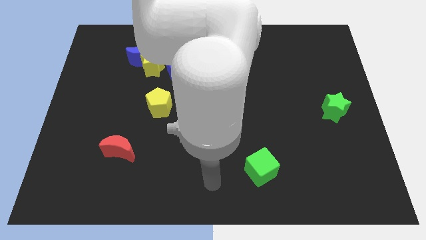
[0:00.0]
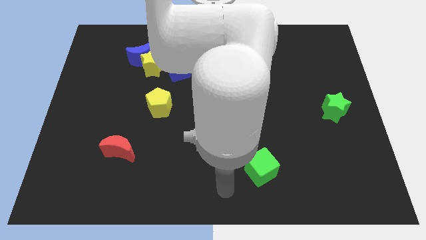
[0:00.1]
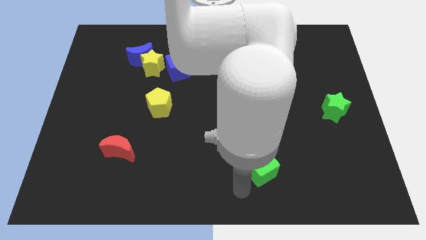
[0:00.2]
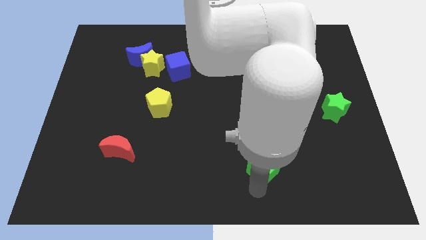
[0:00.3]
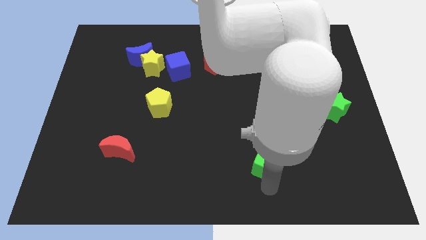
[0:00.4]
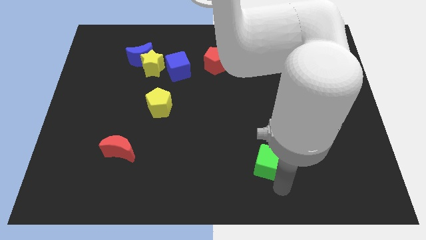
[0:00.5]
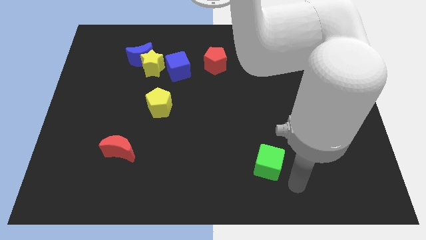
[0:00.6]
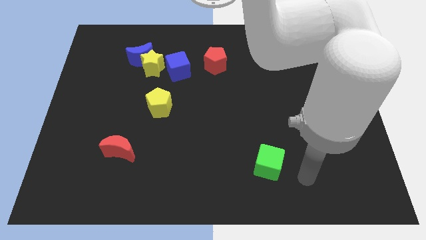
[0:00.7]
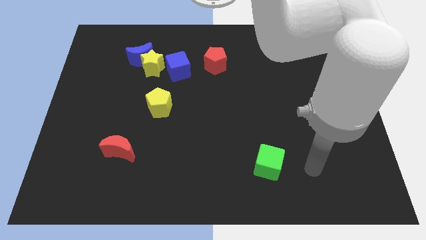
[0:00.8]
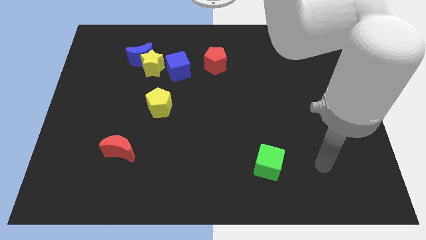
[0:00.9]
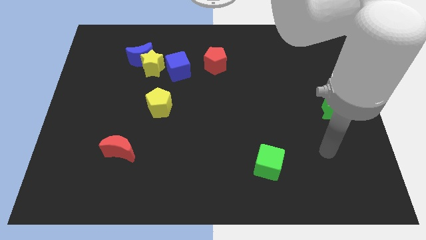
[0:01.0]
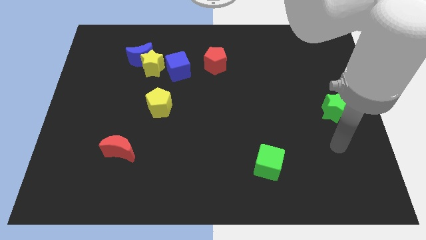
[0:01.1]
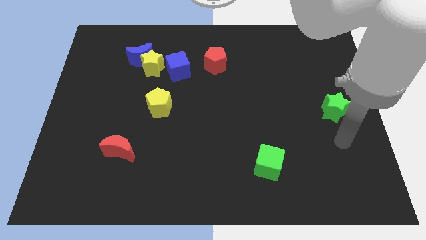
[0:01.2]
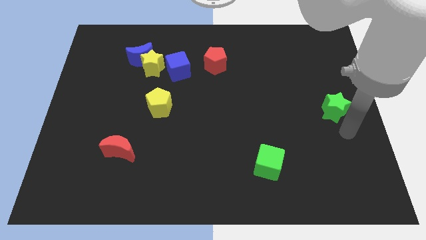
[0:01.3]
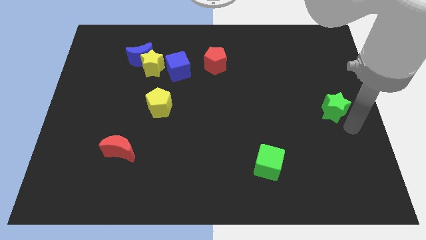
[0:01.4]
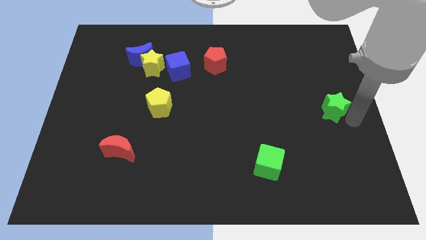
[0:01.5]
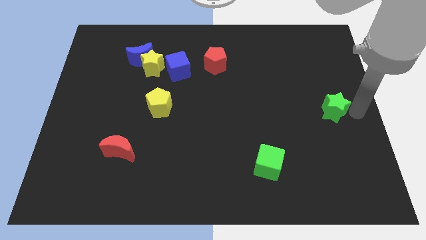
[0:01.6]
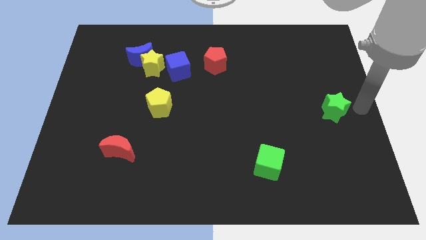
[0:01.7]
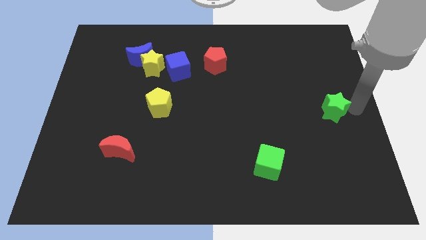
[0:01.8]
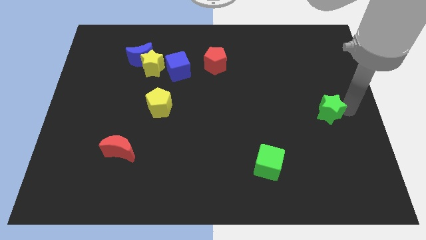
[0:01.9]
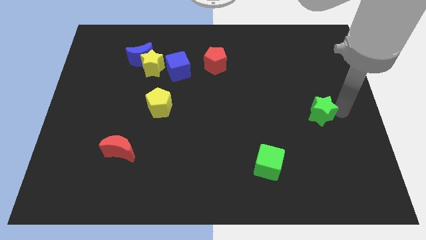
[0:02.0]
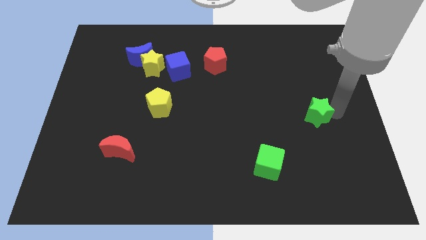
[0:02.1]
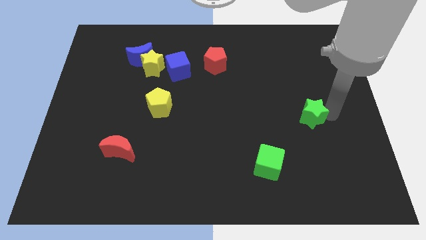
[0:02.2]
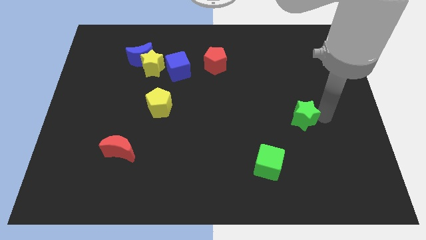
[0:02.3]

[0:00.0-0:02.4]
move the green star to the left slightly

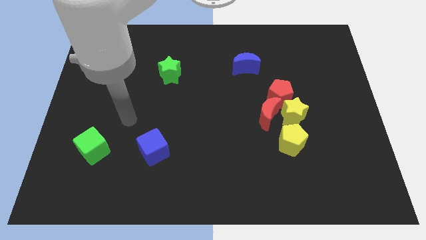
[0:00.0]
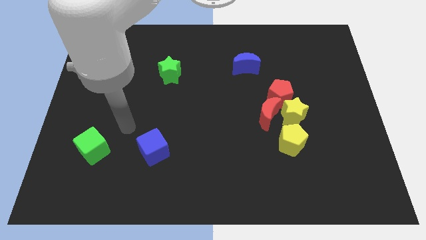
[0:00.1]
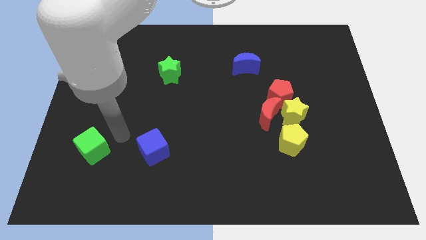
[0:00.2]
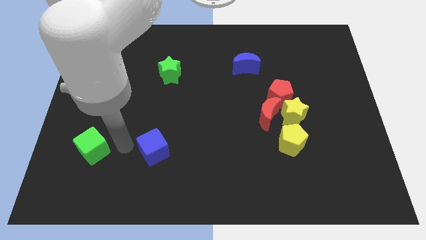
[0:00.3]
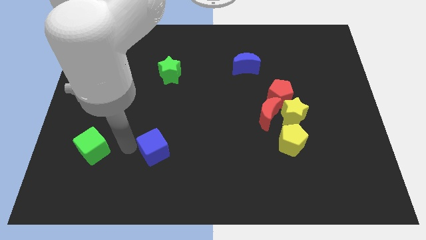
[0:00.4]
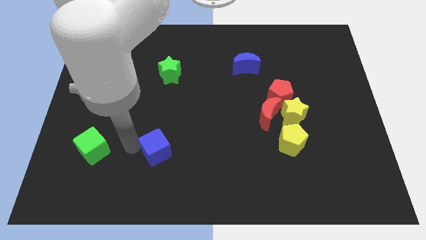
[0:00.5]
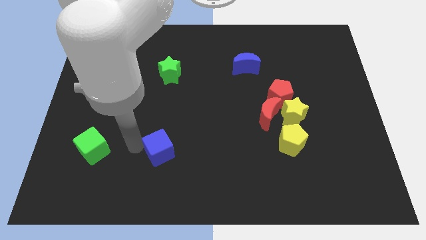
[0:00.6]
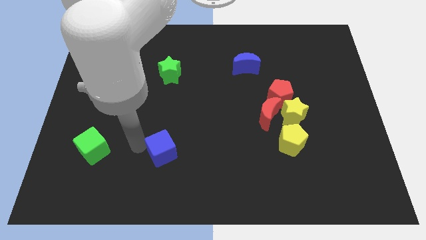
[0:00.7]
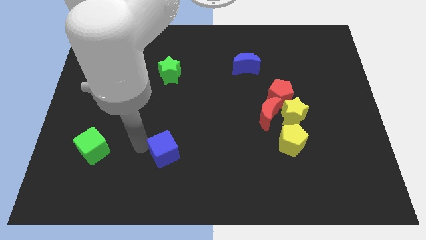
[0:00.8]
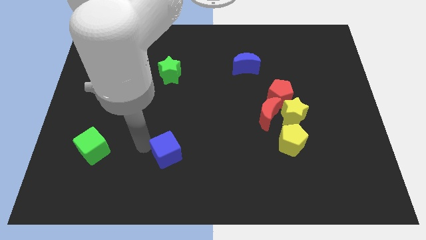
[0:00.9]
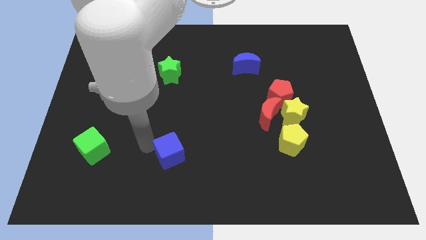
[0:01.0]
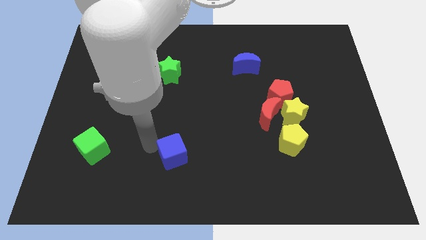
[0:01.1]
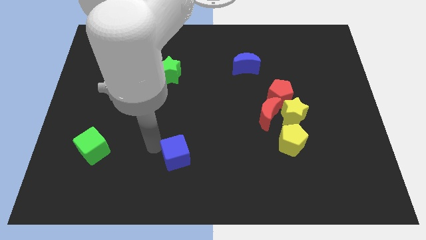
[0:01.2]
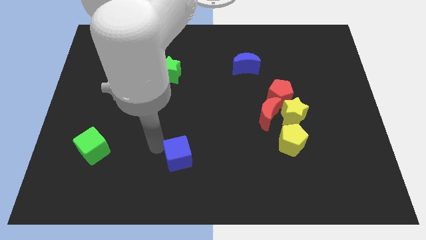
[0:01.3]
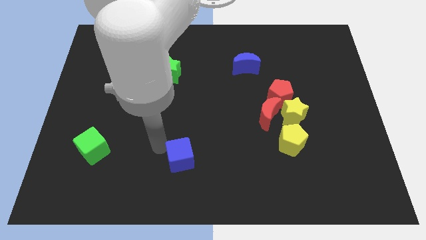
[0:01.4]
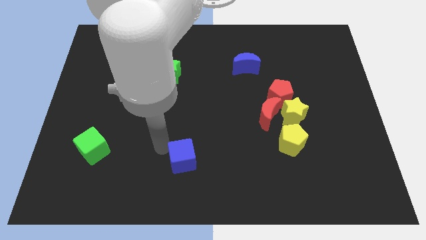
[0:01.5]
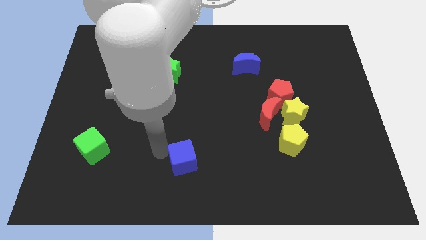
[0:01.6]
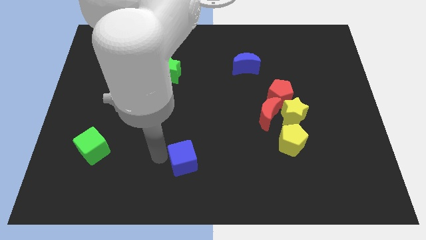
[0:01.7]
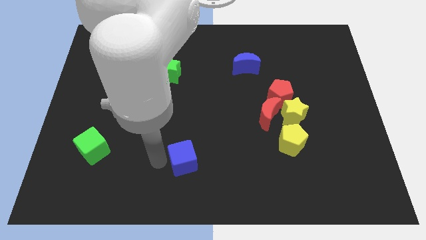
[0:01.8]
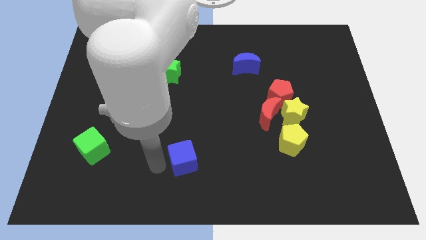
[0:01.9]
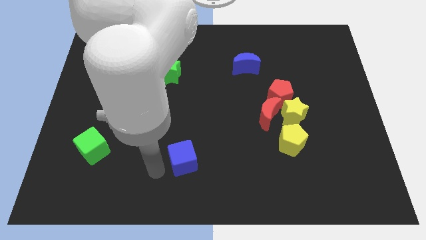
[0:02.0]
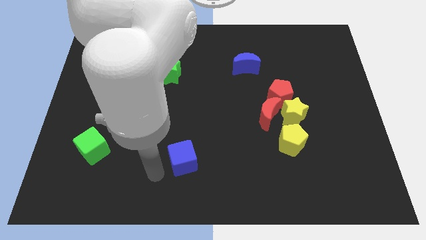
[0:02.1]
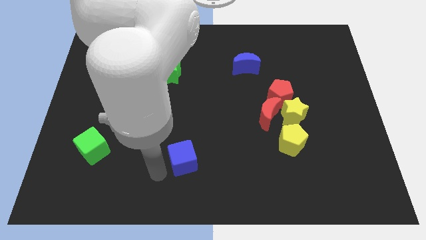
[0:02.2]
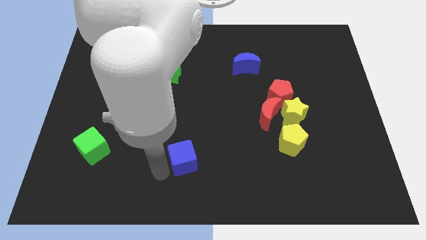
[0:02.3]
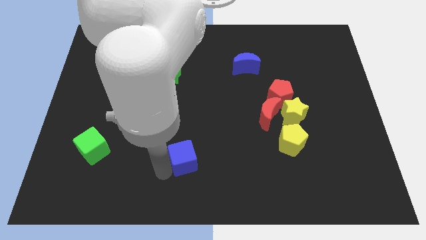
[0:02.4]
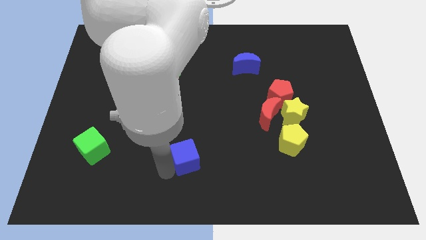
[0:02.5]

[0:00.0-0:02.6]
move the blue cube somewhat right

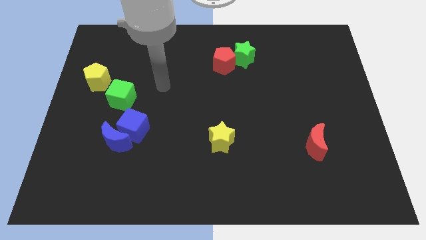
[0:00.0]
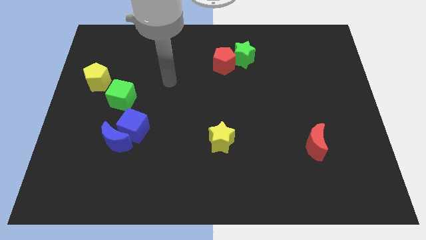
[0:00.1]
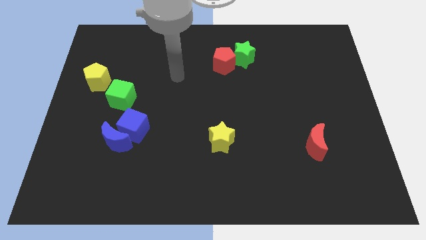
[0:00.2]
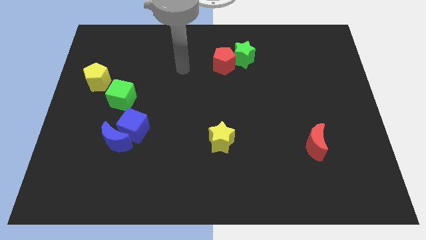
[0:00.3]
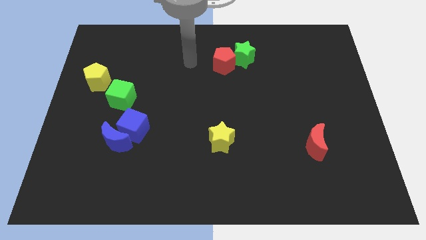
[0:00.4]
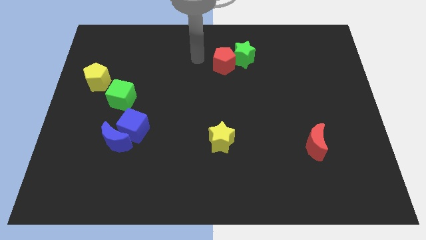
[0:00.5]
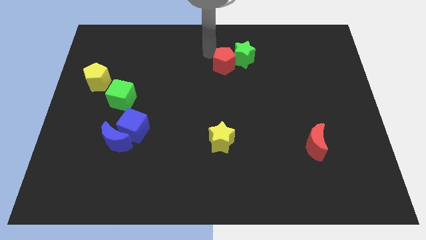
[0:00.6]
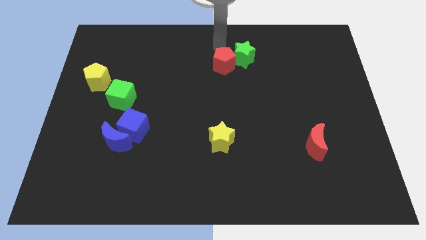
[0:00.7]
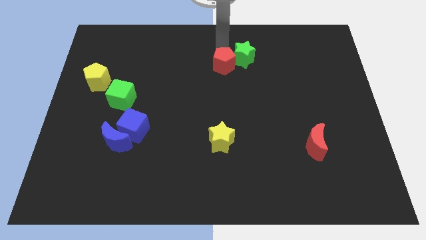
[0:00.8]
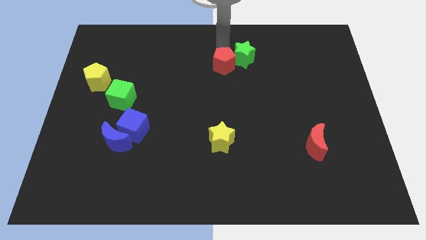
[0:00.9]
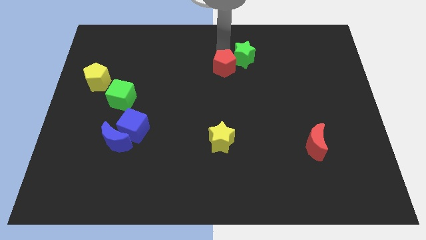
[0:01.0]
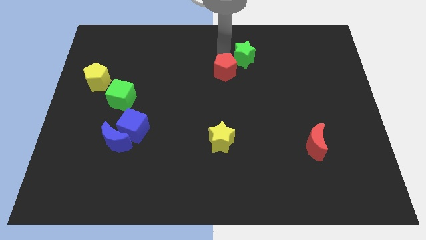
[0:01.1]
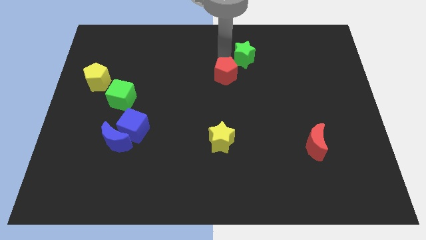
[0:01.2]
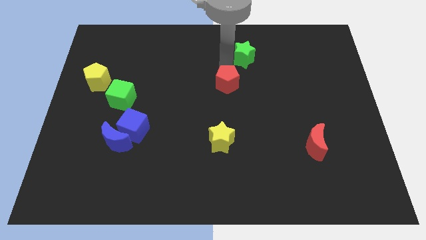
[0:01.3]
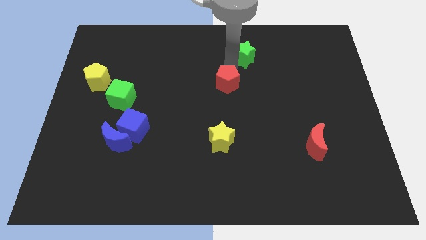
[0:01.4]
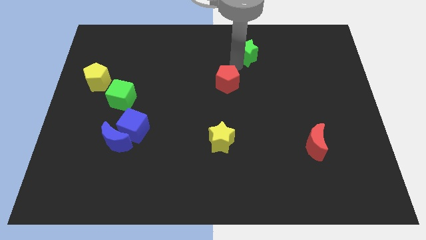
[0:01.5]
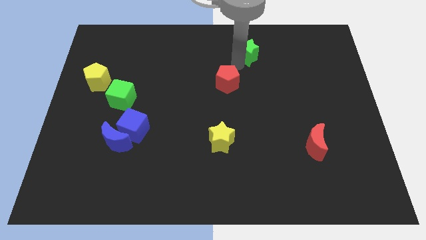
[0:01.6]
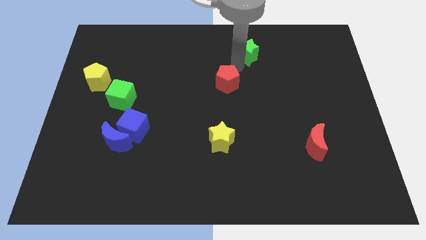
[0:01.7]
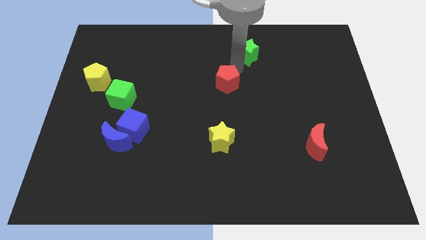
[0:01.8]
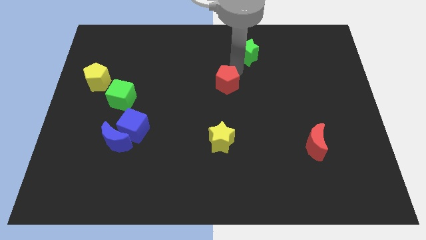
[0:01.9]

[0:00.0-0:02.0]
slightly move the red pentagon downwards

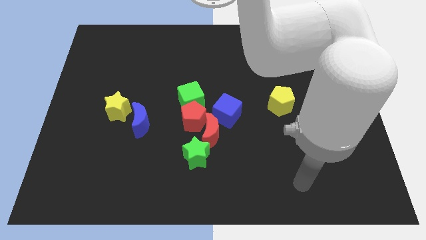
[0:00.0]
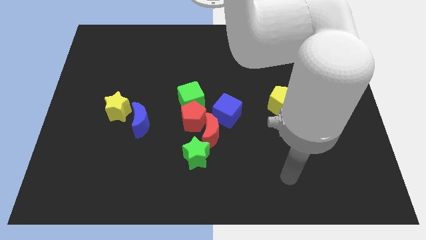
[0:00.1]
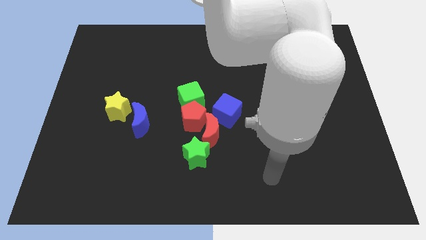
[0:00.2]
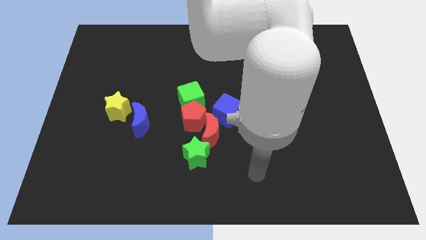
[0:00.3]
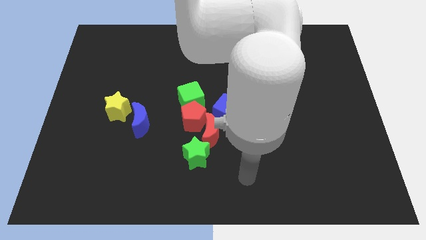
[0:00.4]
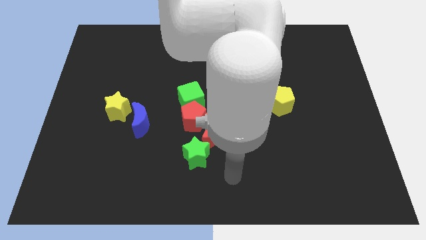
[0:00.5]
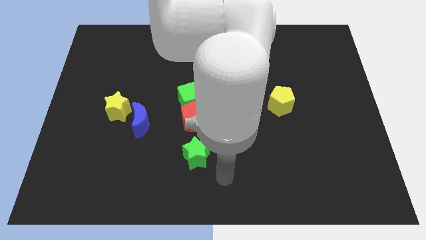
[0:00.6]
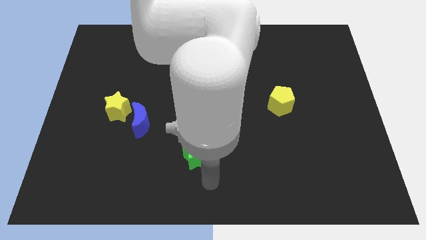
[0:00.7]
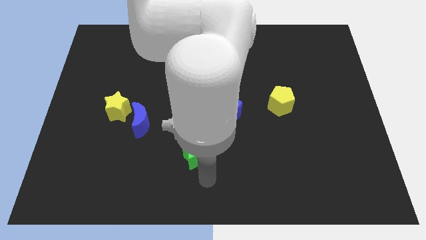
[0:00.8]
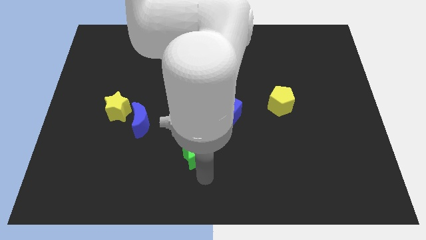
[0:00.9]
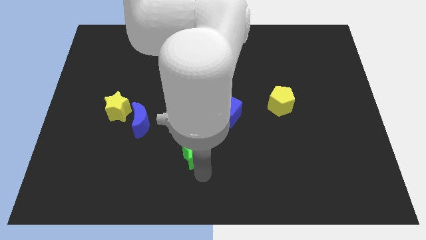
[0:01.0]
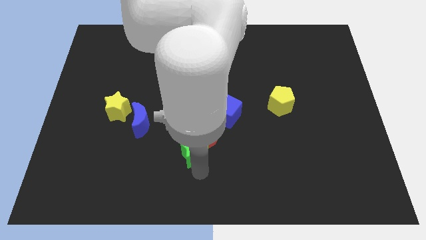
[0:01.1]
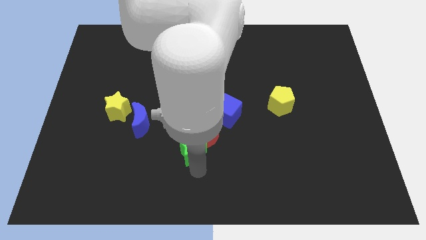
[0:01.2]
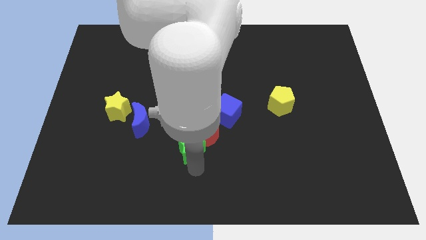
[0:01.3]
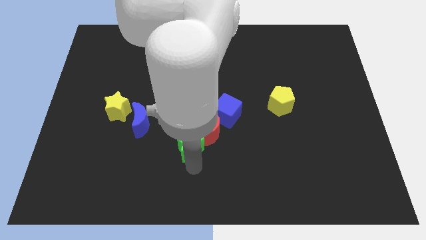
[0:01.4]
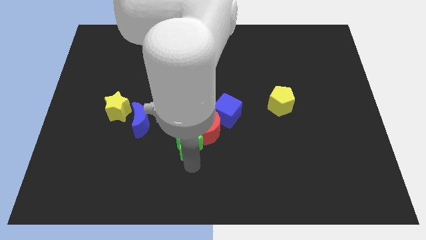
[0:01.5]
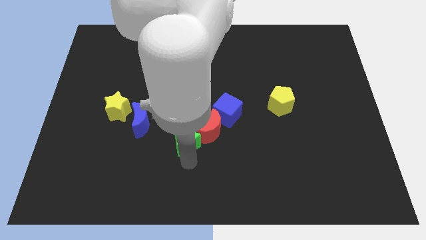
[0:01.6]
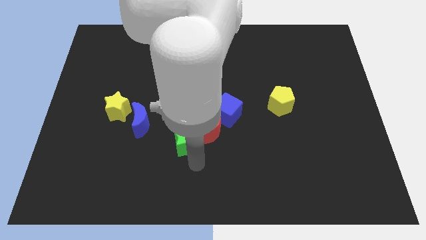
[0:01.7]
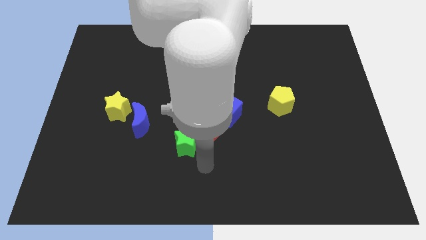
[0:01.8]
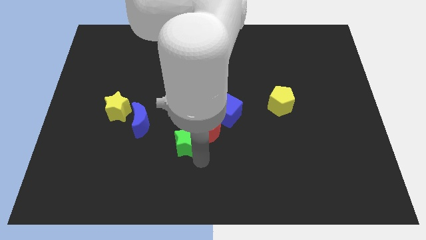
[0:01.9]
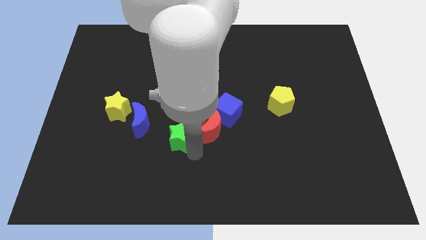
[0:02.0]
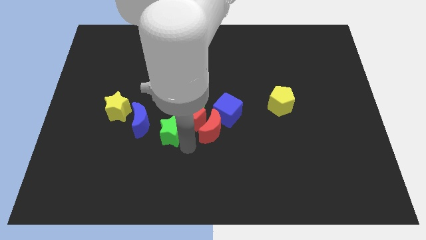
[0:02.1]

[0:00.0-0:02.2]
push the green star a little up and then left
